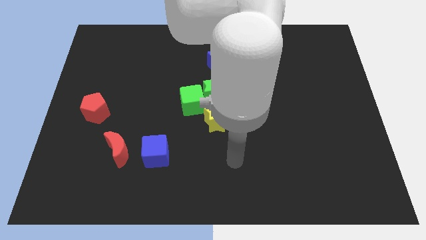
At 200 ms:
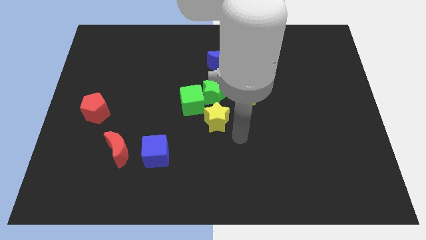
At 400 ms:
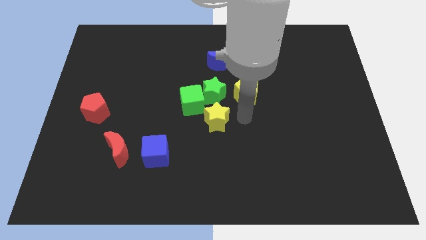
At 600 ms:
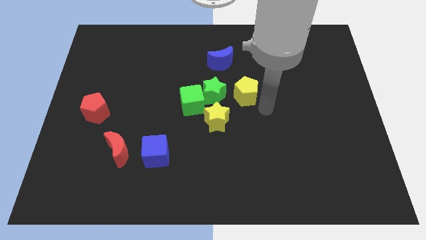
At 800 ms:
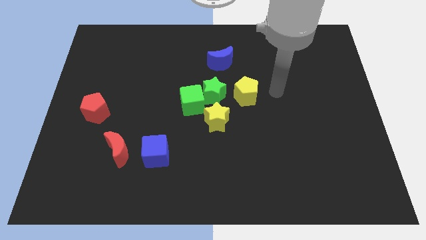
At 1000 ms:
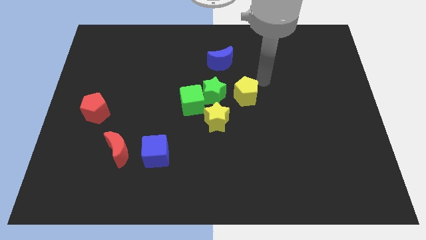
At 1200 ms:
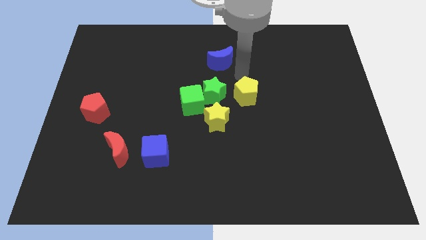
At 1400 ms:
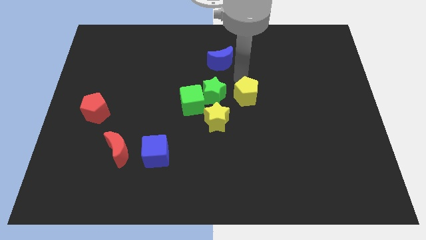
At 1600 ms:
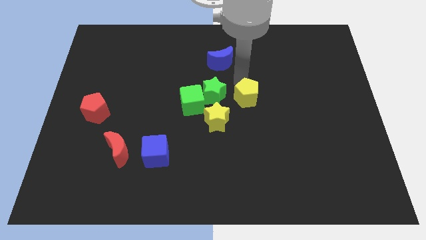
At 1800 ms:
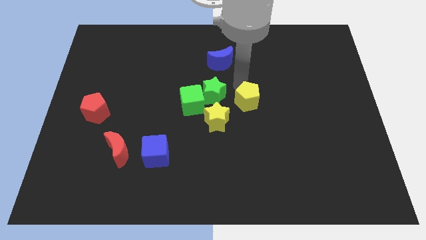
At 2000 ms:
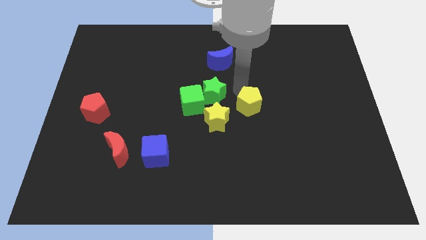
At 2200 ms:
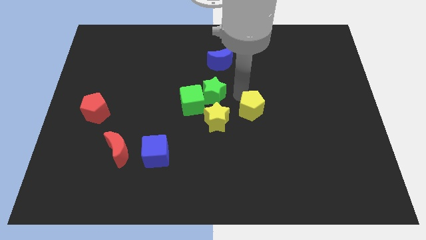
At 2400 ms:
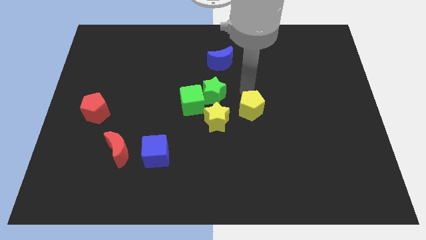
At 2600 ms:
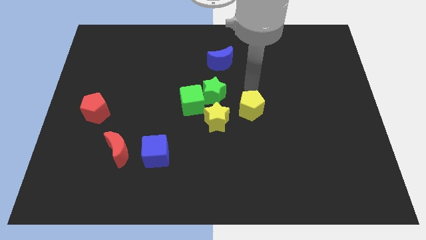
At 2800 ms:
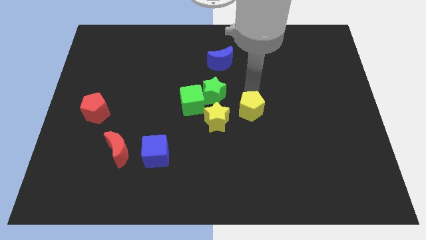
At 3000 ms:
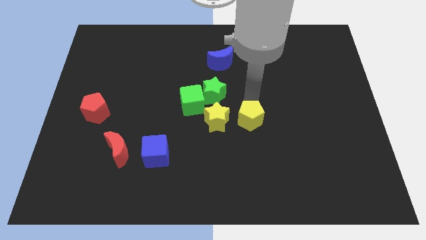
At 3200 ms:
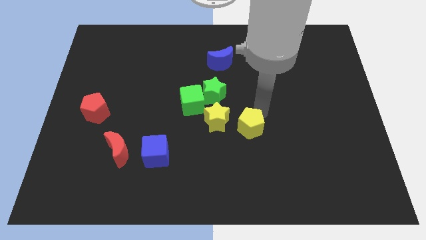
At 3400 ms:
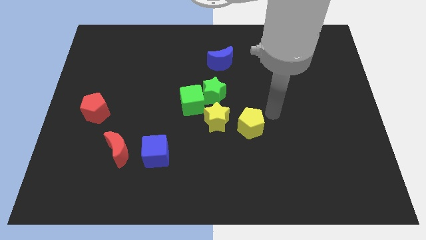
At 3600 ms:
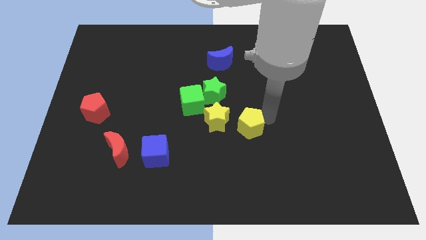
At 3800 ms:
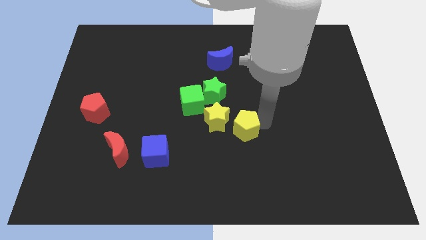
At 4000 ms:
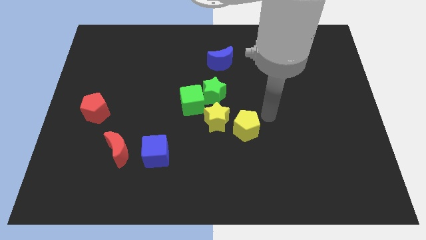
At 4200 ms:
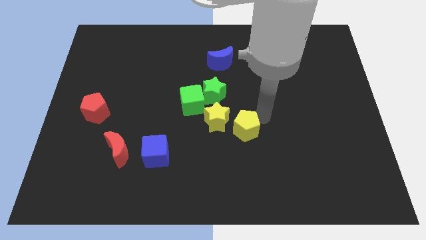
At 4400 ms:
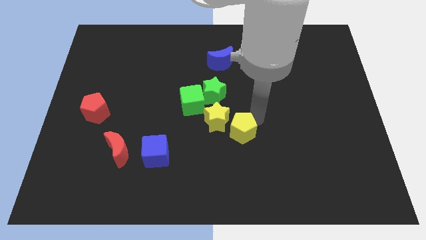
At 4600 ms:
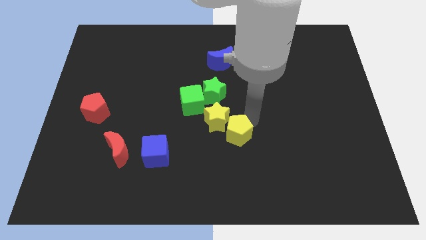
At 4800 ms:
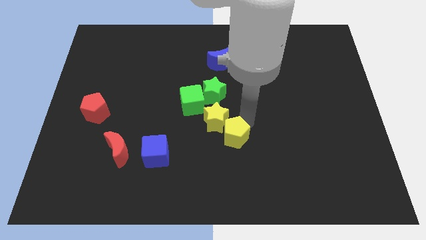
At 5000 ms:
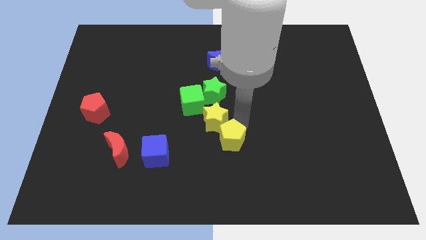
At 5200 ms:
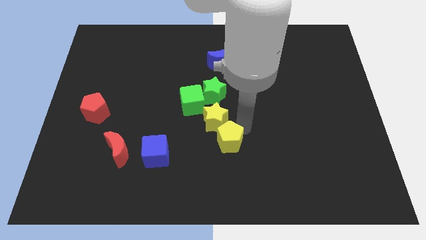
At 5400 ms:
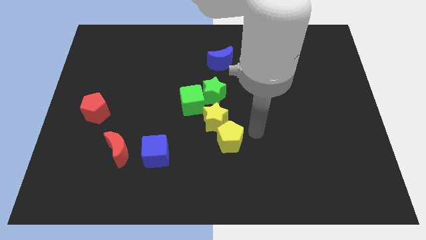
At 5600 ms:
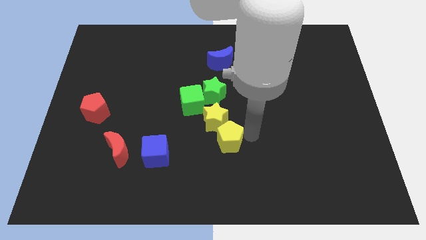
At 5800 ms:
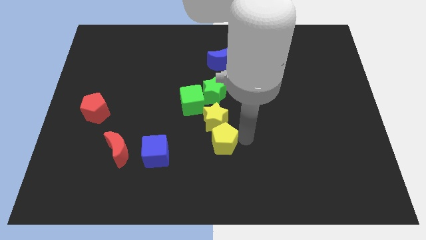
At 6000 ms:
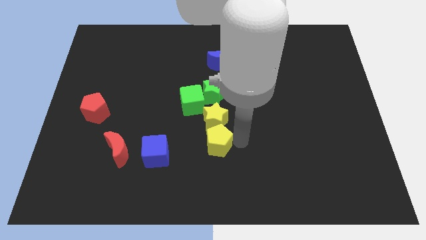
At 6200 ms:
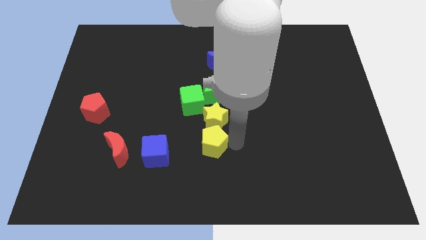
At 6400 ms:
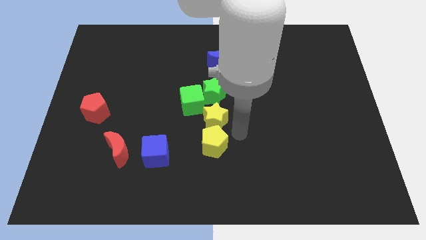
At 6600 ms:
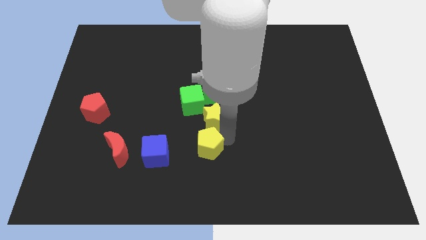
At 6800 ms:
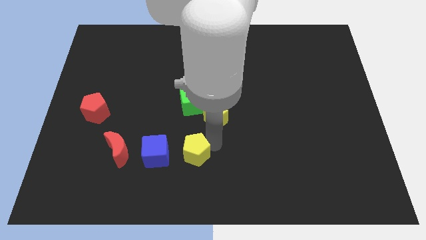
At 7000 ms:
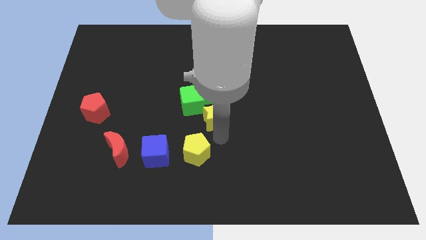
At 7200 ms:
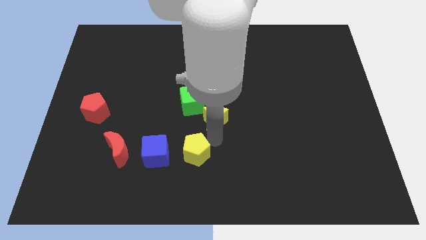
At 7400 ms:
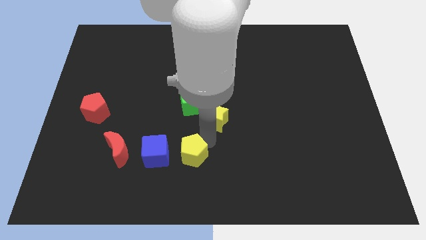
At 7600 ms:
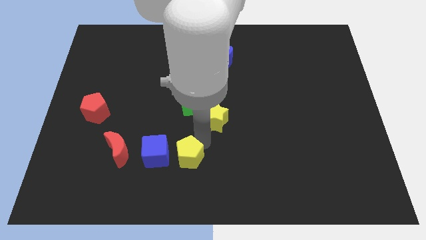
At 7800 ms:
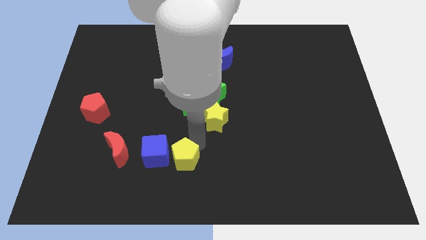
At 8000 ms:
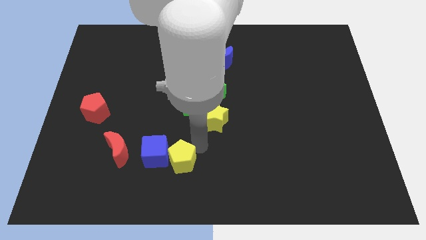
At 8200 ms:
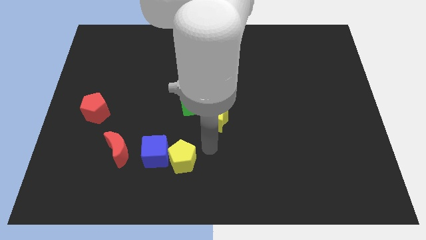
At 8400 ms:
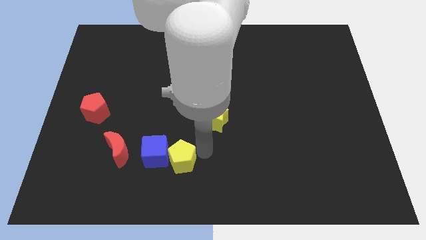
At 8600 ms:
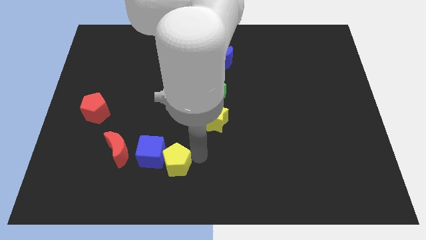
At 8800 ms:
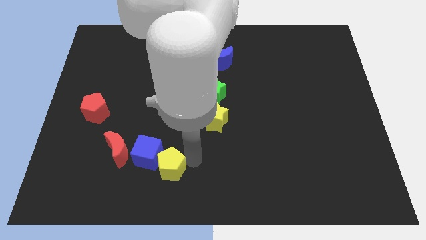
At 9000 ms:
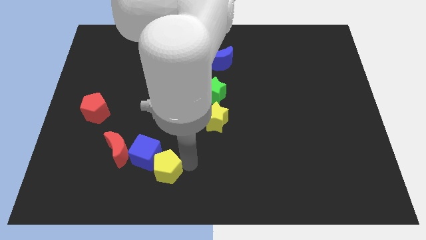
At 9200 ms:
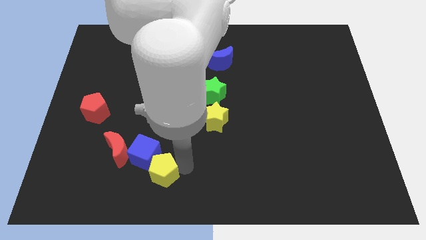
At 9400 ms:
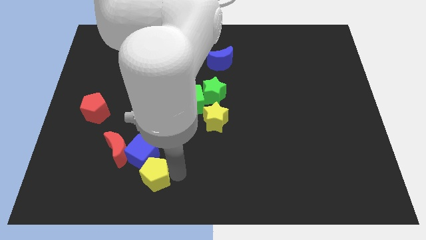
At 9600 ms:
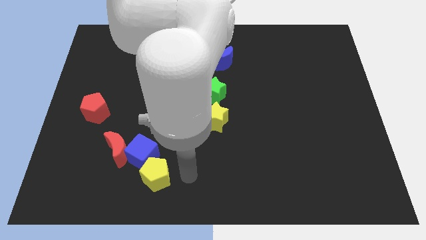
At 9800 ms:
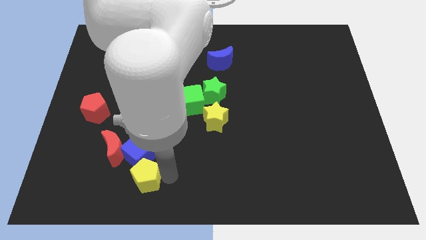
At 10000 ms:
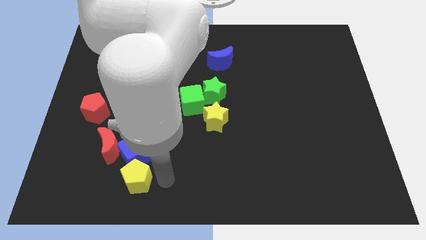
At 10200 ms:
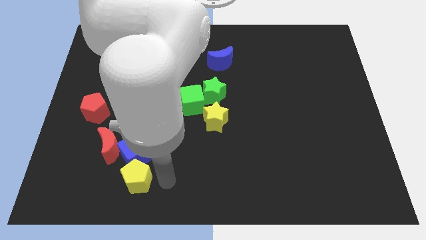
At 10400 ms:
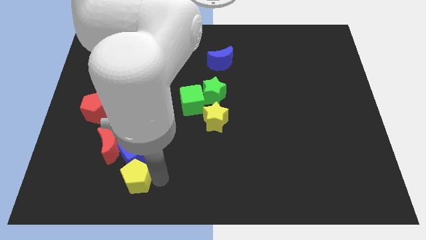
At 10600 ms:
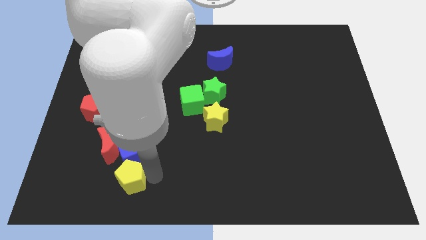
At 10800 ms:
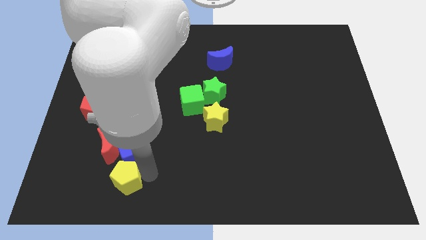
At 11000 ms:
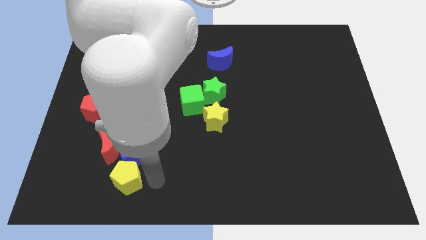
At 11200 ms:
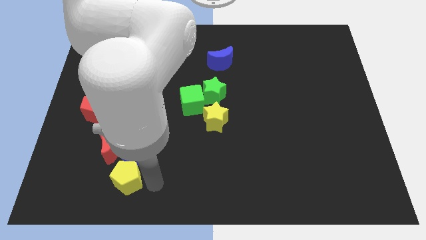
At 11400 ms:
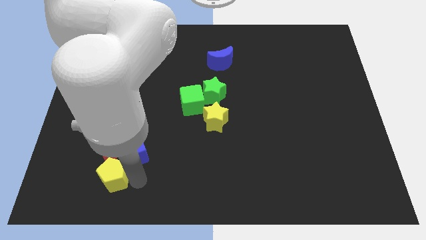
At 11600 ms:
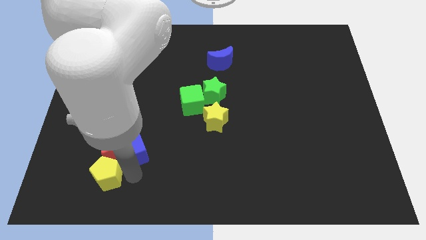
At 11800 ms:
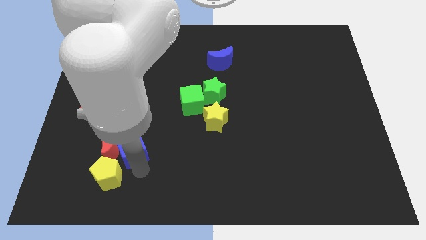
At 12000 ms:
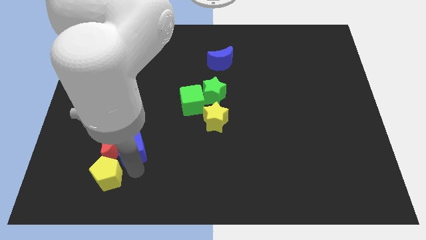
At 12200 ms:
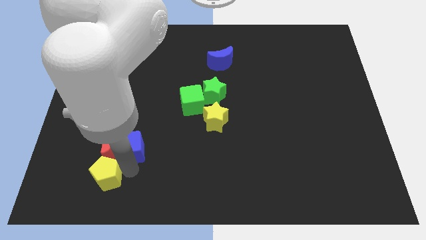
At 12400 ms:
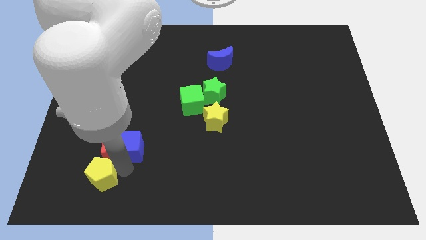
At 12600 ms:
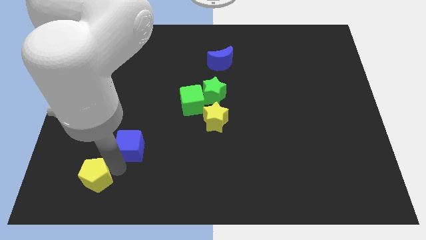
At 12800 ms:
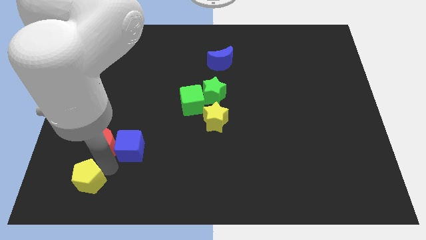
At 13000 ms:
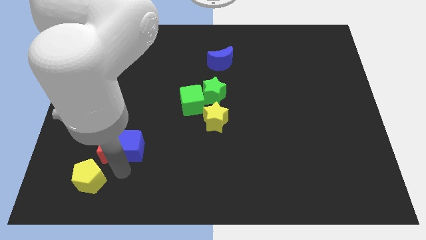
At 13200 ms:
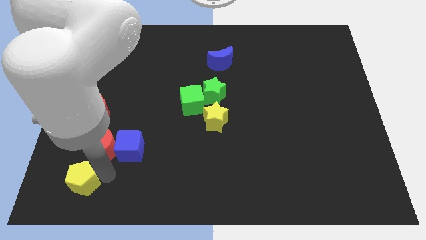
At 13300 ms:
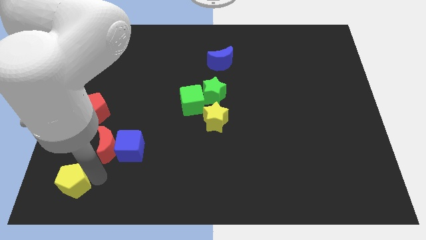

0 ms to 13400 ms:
move the yellow pentagon to the bottom left of the board
